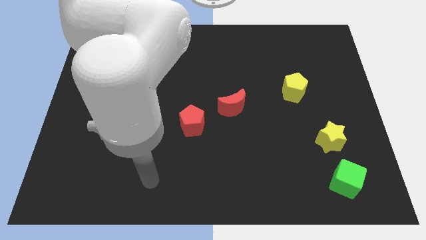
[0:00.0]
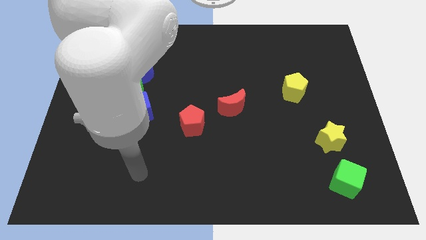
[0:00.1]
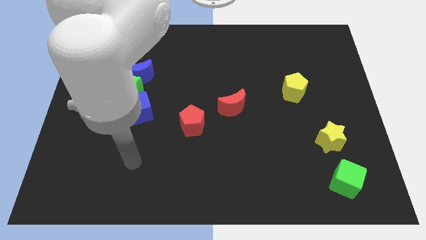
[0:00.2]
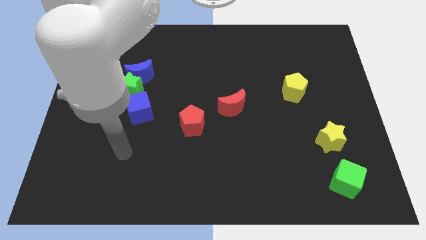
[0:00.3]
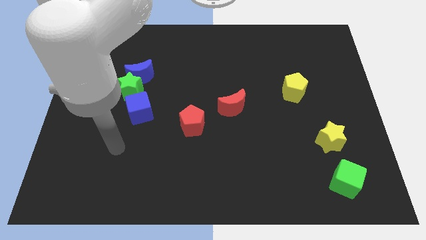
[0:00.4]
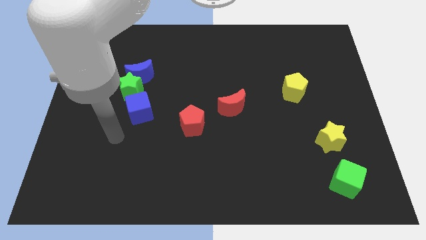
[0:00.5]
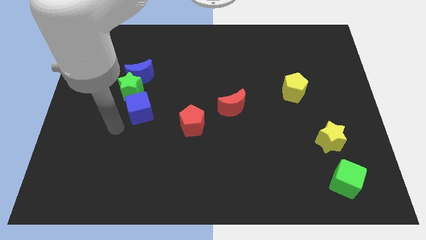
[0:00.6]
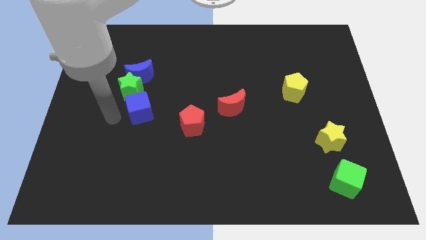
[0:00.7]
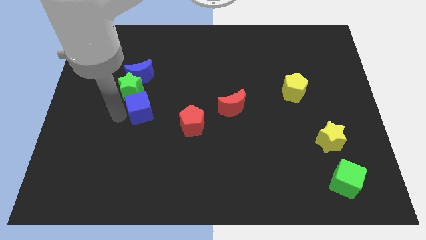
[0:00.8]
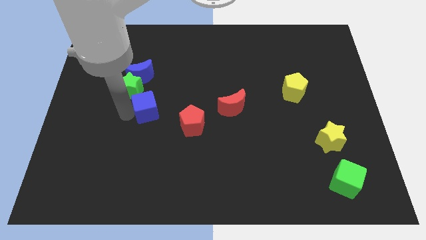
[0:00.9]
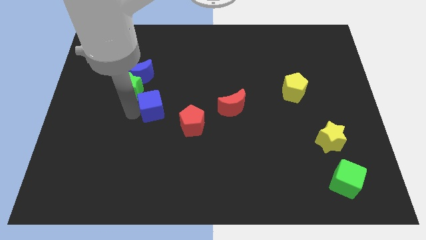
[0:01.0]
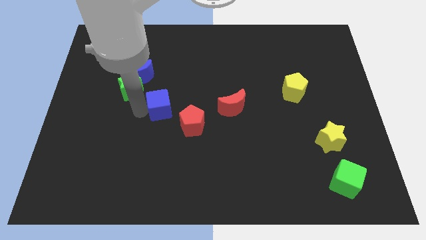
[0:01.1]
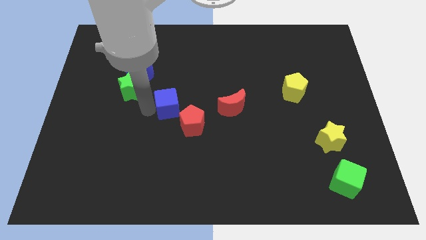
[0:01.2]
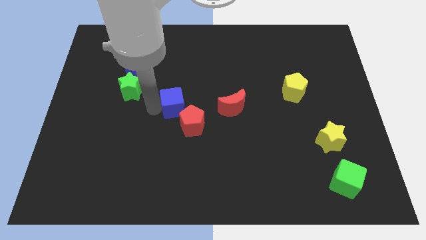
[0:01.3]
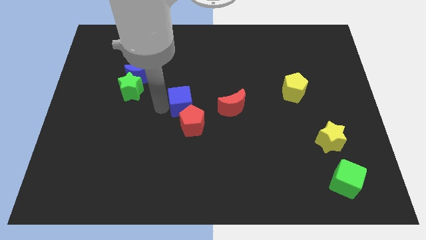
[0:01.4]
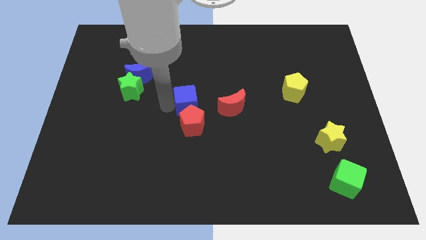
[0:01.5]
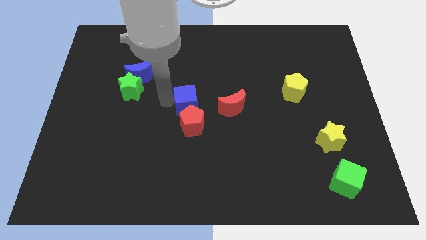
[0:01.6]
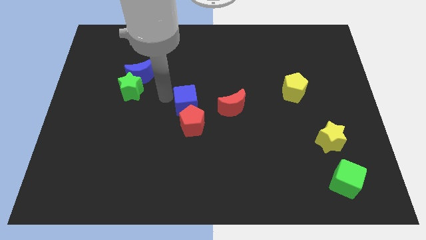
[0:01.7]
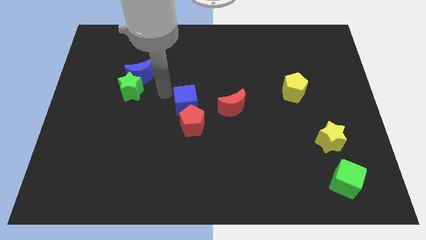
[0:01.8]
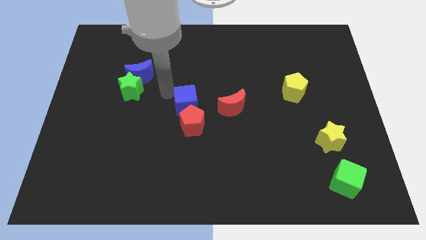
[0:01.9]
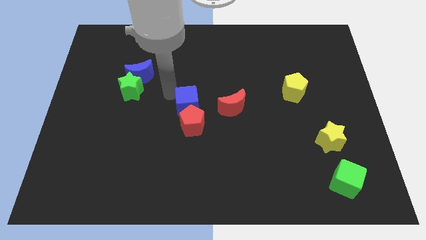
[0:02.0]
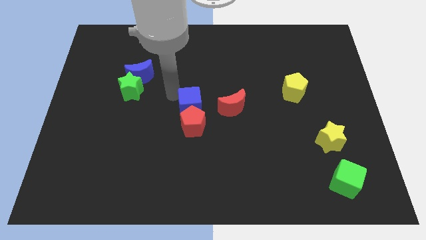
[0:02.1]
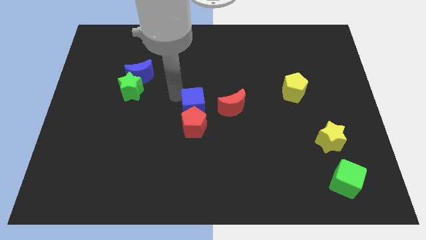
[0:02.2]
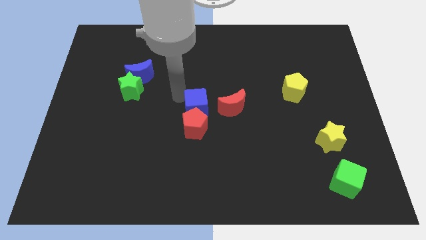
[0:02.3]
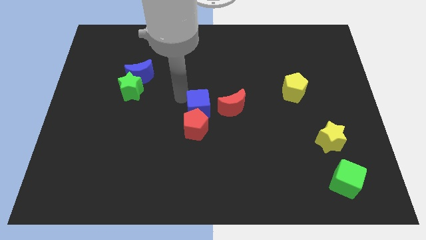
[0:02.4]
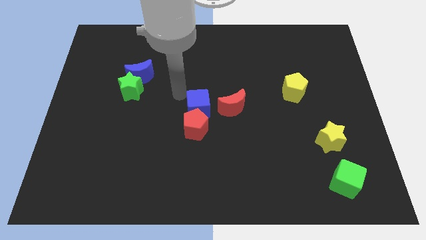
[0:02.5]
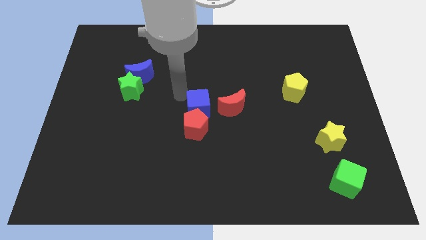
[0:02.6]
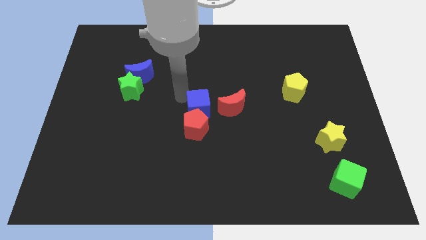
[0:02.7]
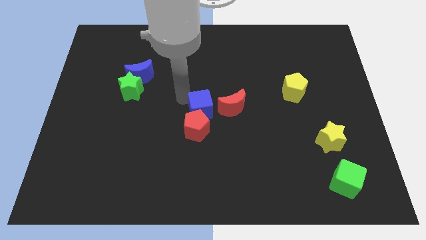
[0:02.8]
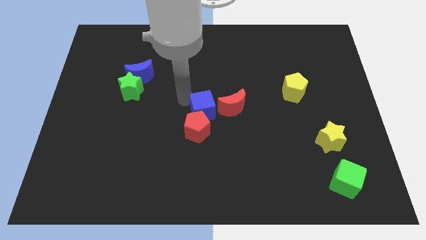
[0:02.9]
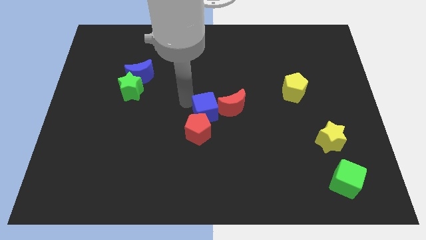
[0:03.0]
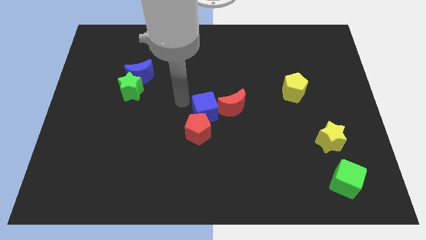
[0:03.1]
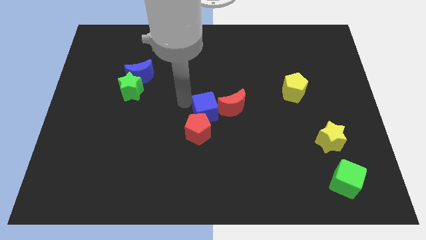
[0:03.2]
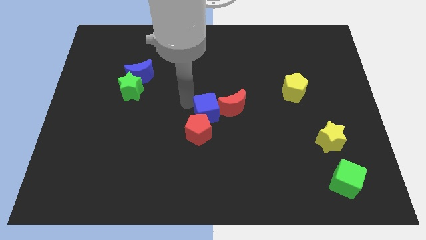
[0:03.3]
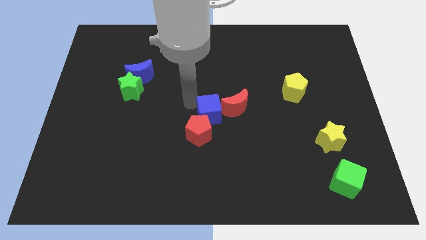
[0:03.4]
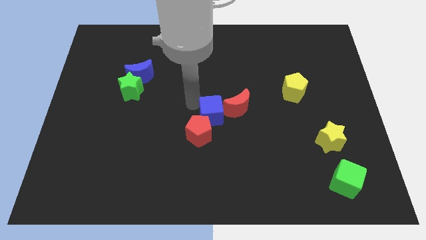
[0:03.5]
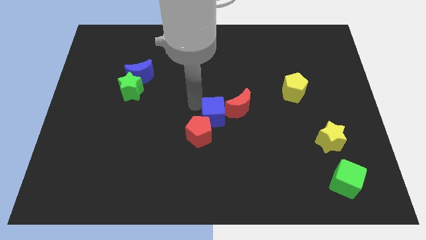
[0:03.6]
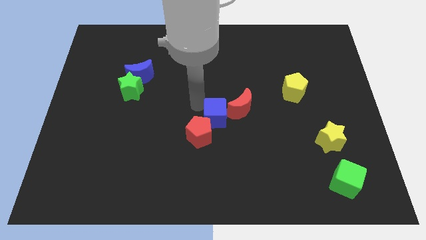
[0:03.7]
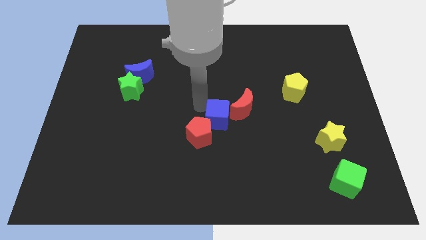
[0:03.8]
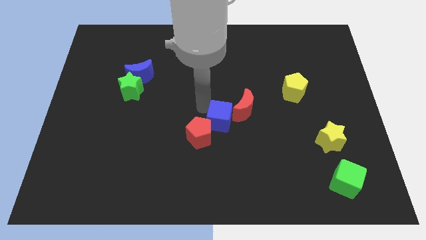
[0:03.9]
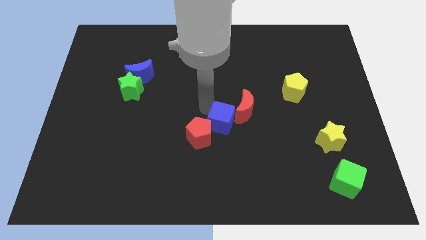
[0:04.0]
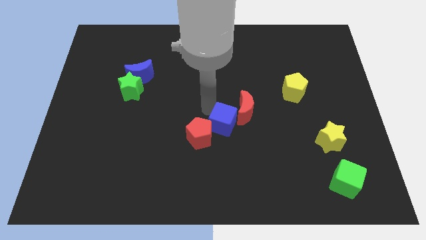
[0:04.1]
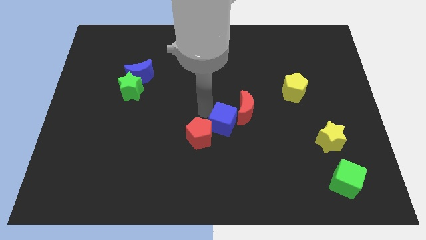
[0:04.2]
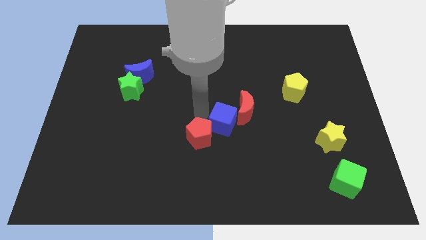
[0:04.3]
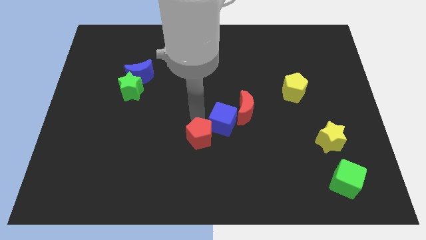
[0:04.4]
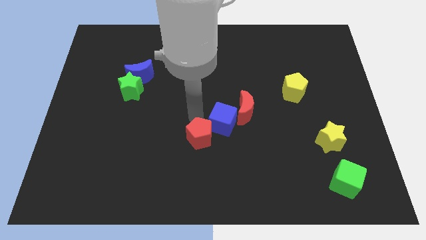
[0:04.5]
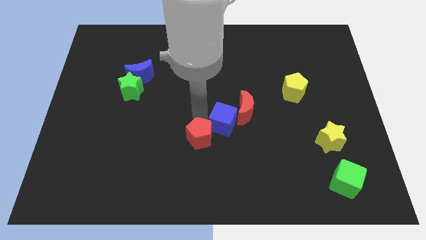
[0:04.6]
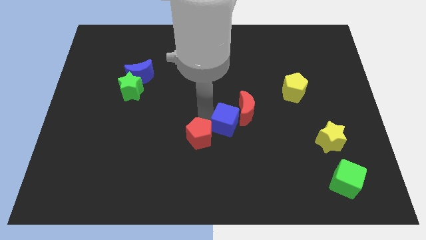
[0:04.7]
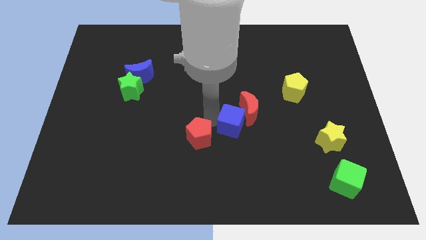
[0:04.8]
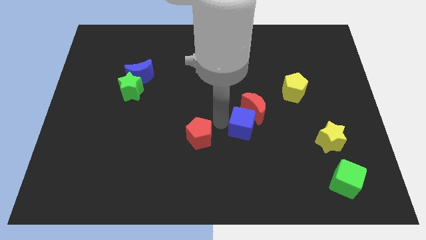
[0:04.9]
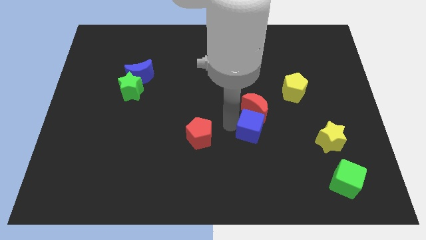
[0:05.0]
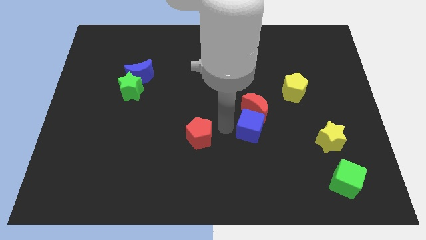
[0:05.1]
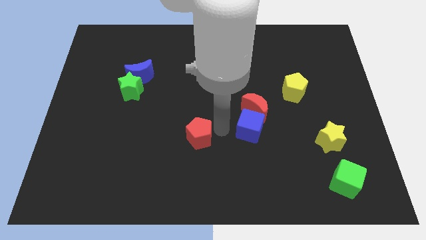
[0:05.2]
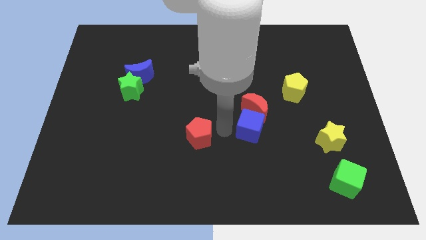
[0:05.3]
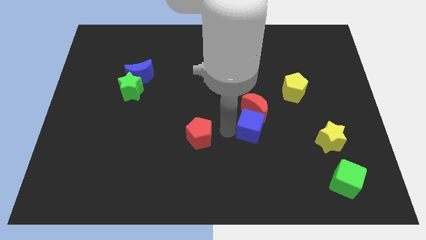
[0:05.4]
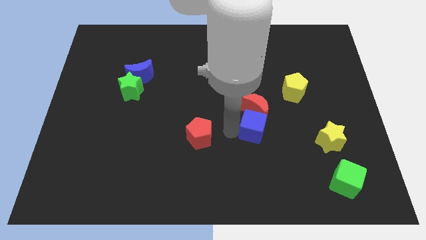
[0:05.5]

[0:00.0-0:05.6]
push the blue cube to the bottom right of the red moon

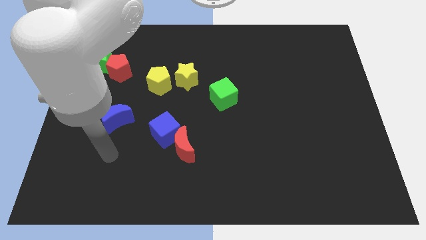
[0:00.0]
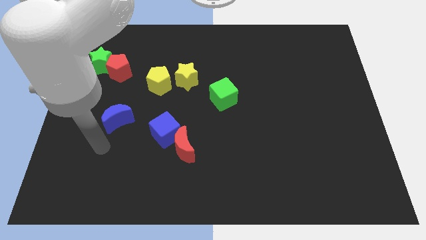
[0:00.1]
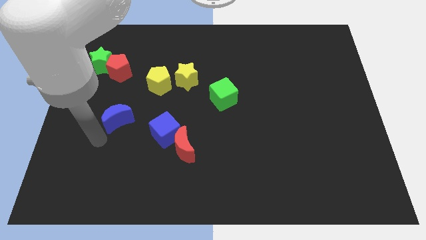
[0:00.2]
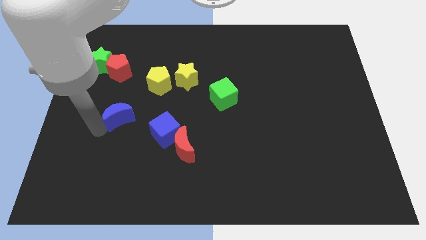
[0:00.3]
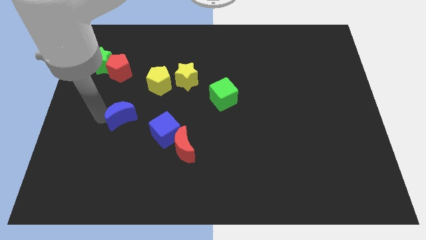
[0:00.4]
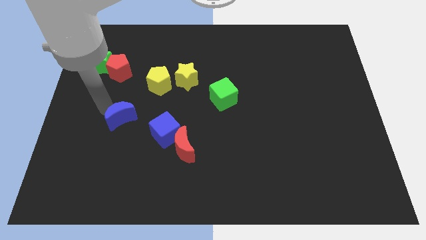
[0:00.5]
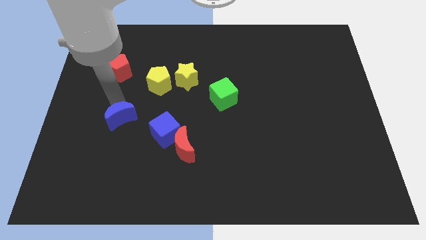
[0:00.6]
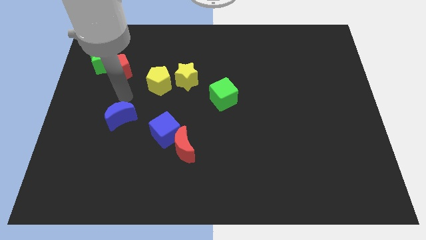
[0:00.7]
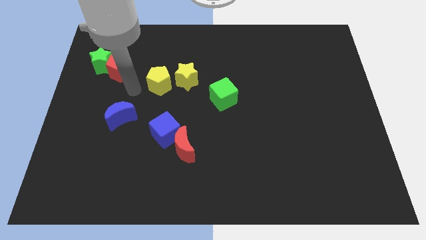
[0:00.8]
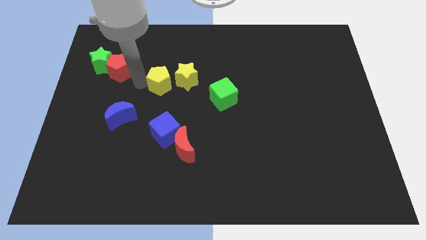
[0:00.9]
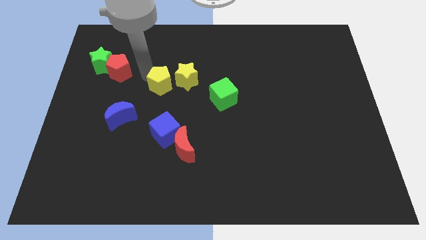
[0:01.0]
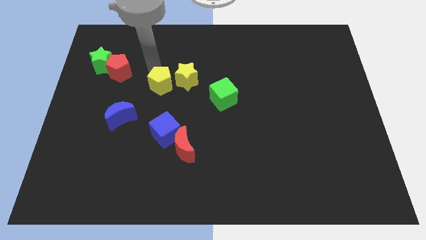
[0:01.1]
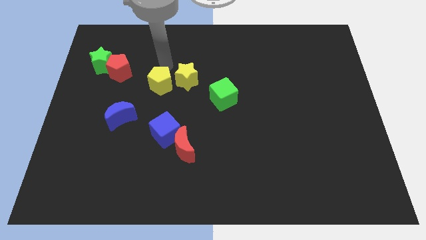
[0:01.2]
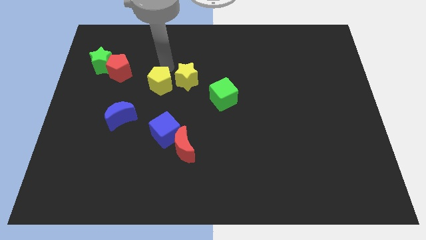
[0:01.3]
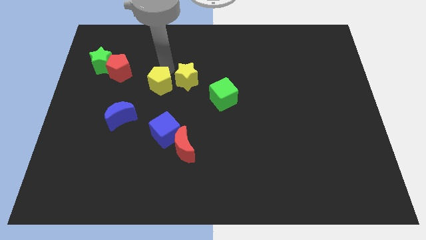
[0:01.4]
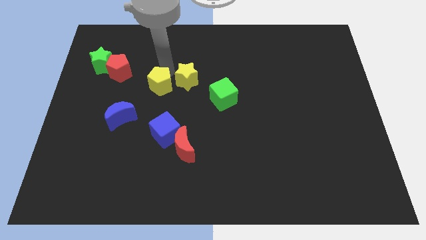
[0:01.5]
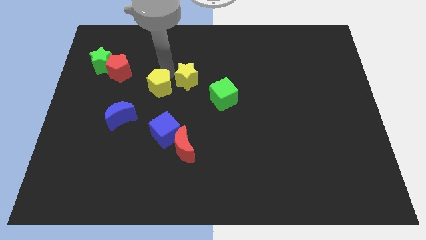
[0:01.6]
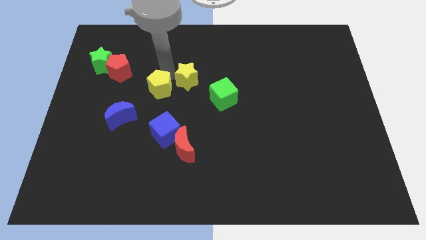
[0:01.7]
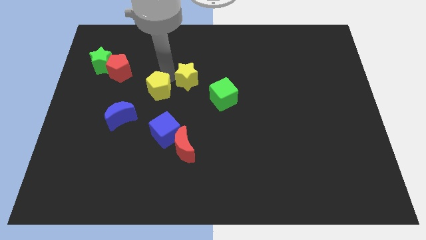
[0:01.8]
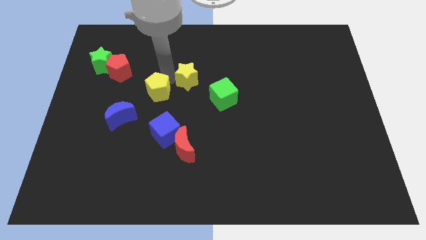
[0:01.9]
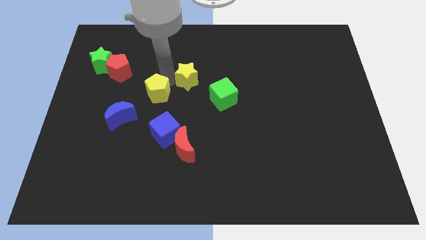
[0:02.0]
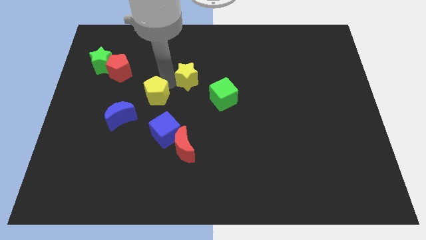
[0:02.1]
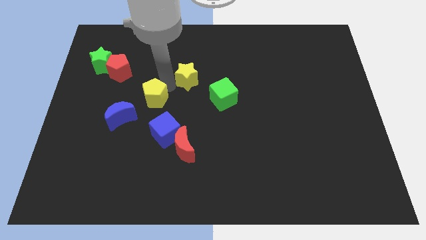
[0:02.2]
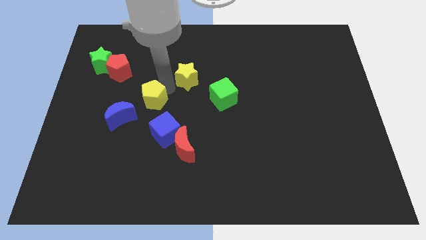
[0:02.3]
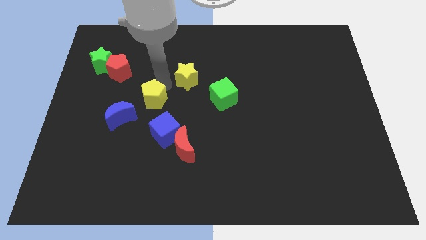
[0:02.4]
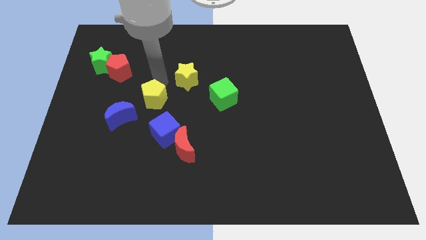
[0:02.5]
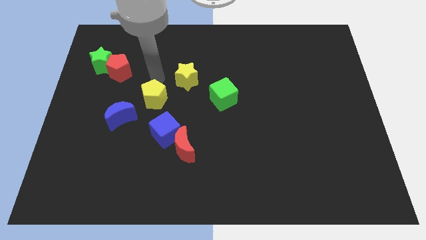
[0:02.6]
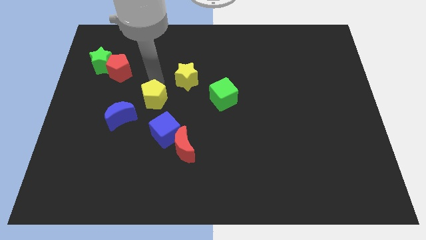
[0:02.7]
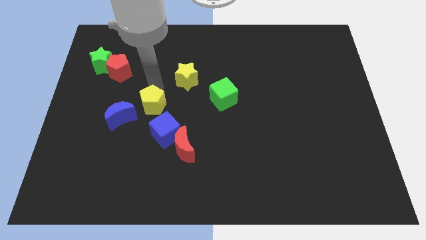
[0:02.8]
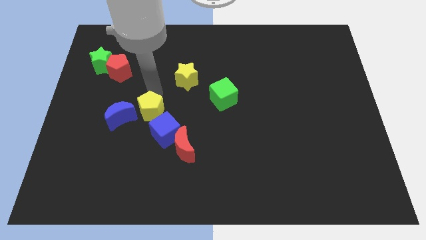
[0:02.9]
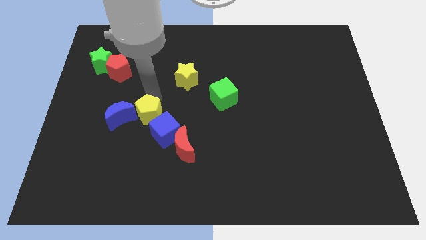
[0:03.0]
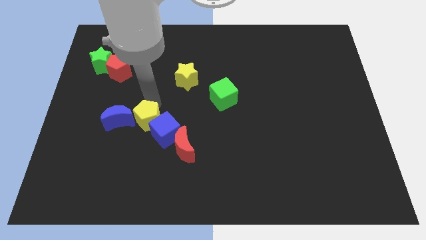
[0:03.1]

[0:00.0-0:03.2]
push the yellow pentagon to the bottom right side of the blue moon
